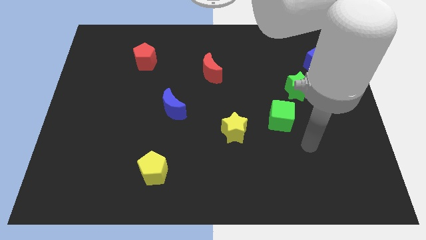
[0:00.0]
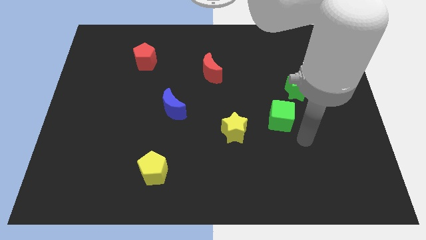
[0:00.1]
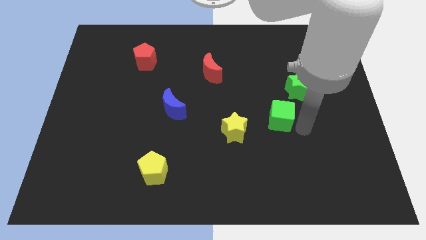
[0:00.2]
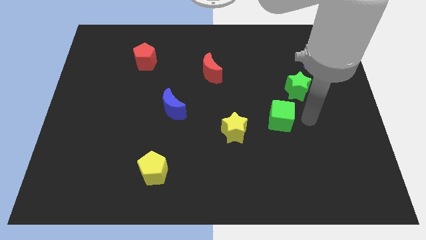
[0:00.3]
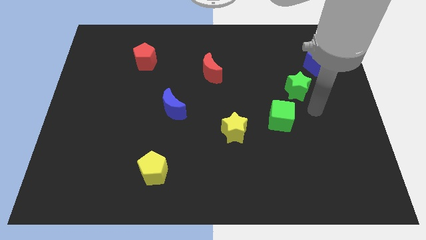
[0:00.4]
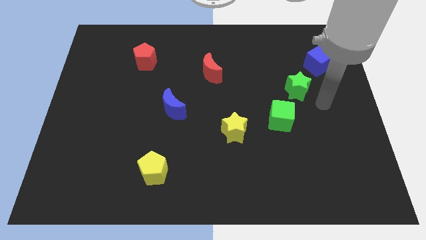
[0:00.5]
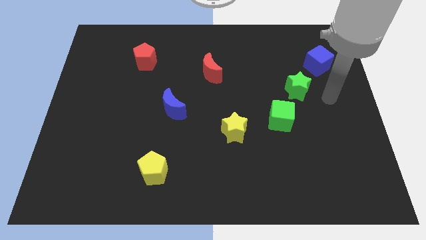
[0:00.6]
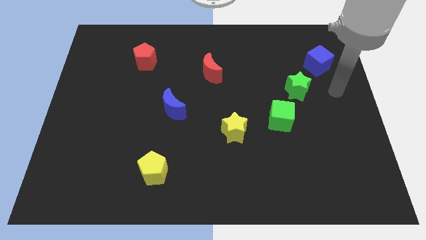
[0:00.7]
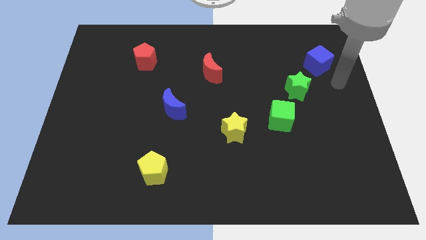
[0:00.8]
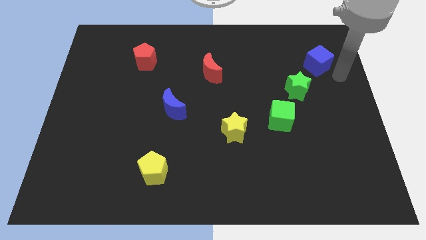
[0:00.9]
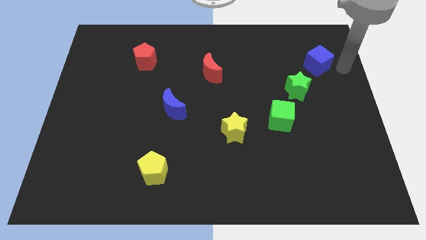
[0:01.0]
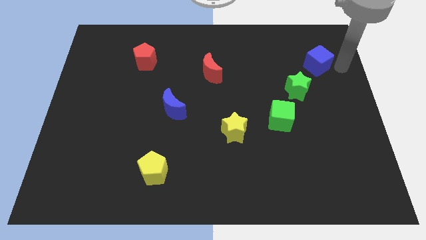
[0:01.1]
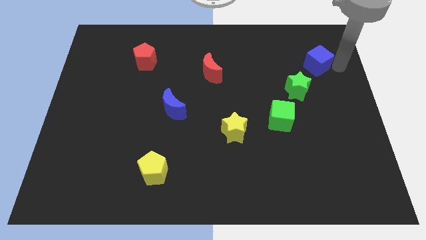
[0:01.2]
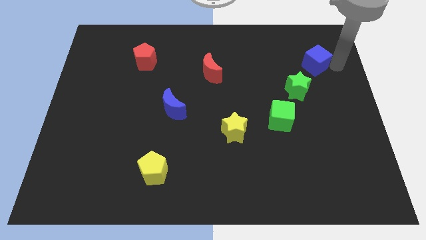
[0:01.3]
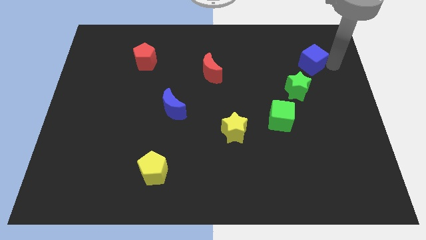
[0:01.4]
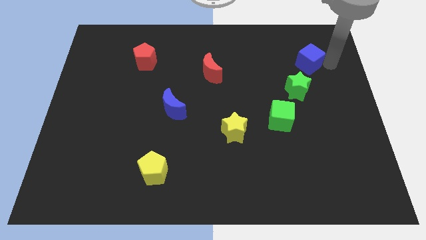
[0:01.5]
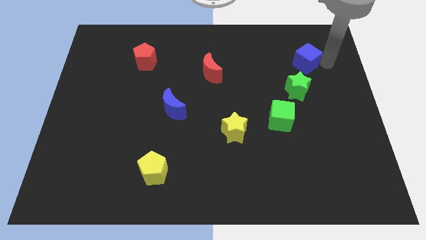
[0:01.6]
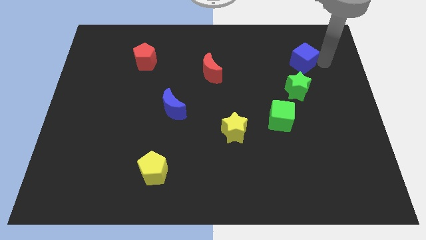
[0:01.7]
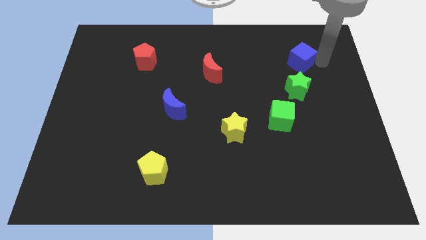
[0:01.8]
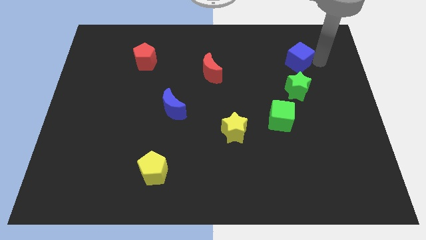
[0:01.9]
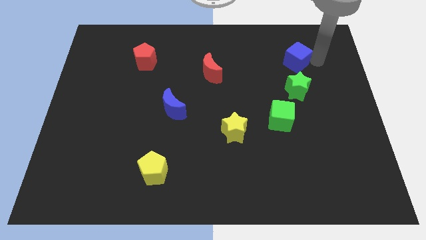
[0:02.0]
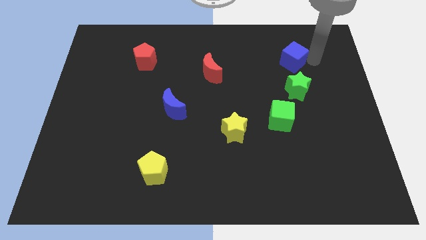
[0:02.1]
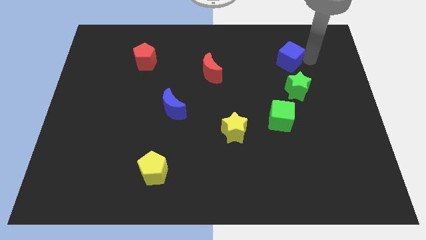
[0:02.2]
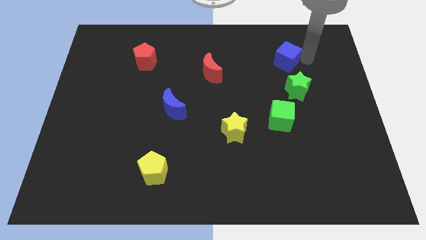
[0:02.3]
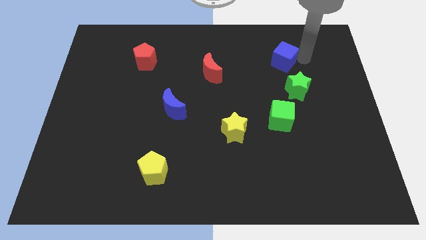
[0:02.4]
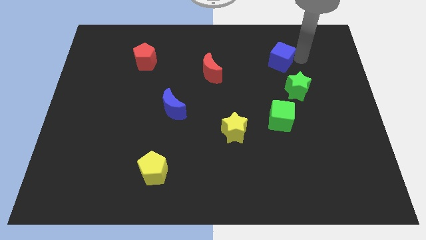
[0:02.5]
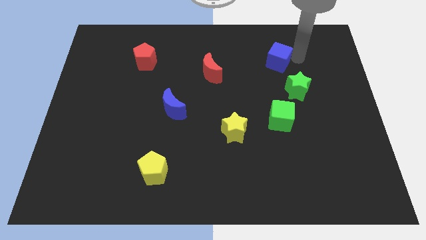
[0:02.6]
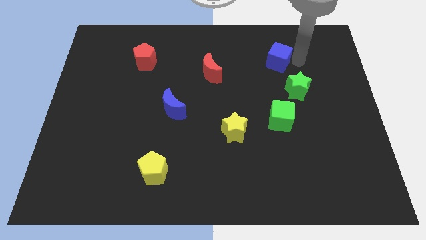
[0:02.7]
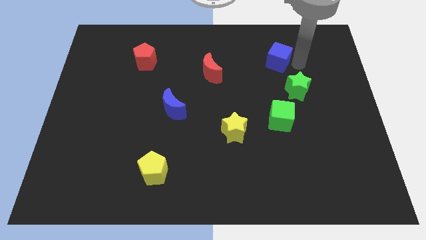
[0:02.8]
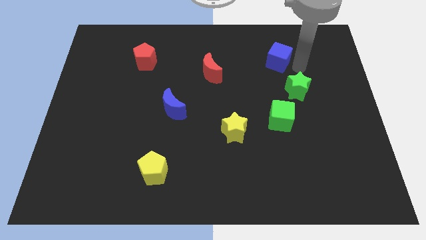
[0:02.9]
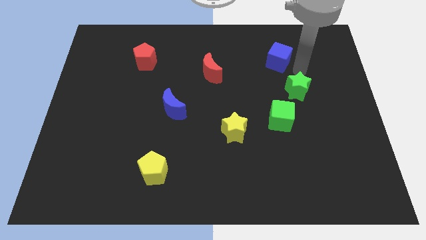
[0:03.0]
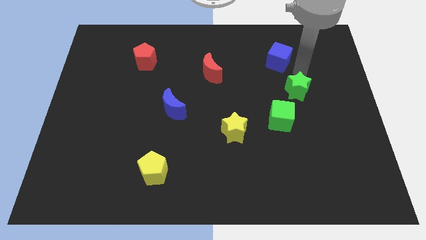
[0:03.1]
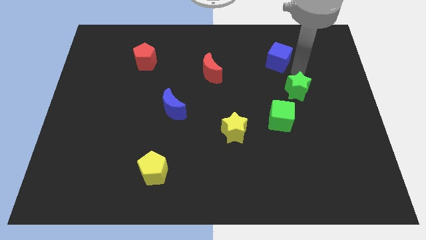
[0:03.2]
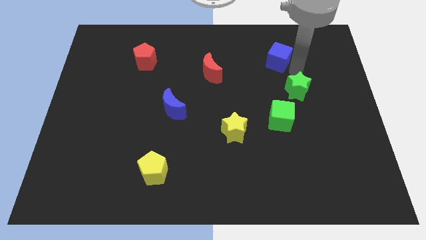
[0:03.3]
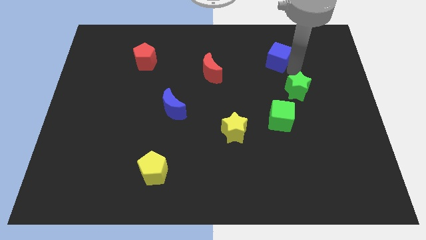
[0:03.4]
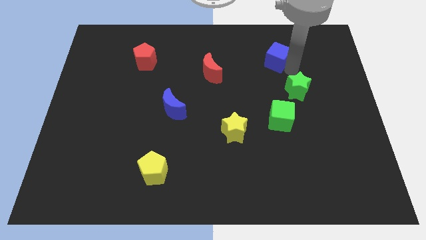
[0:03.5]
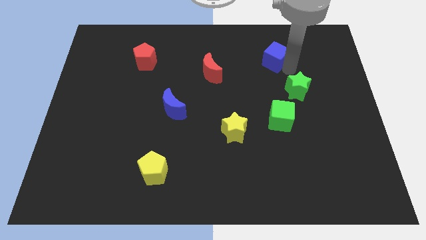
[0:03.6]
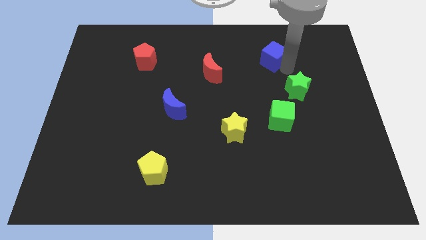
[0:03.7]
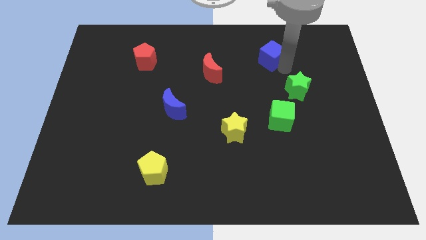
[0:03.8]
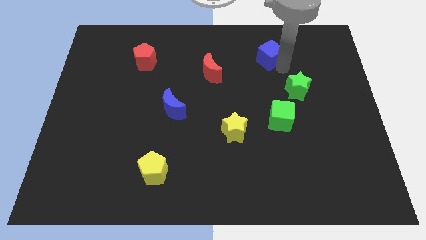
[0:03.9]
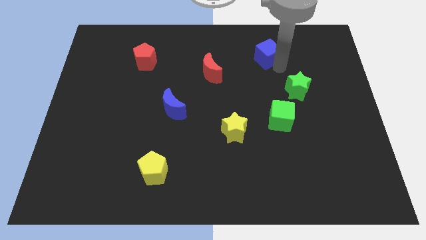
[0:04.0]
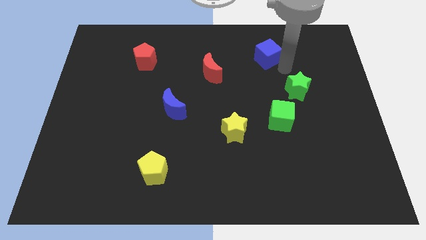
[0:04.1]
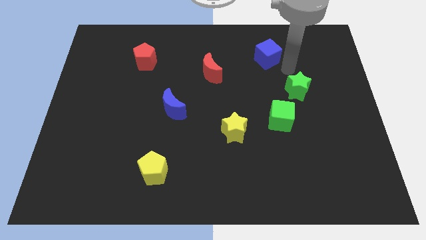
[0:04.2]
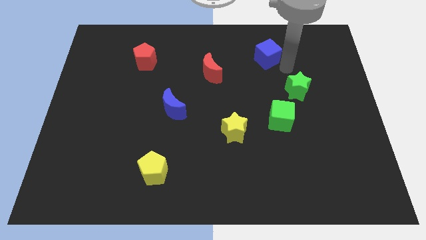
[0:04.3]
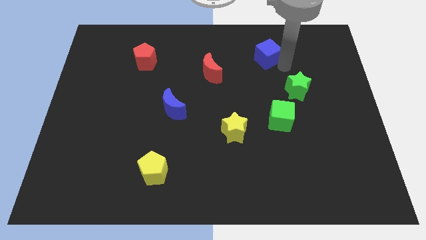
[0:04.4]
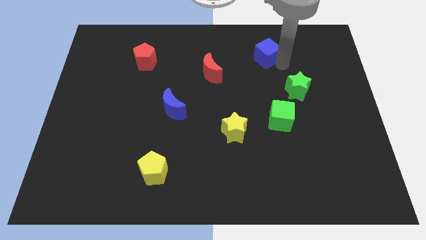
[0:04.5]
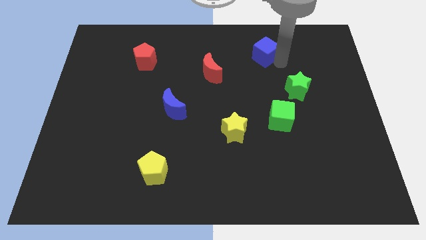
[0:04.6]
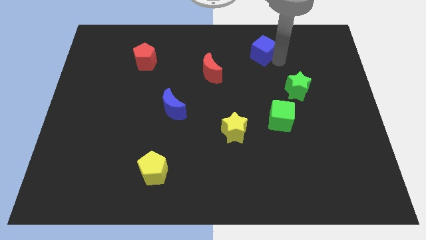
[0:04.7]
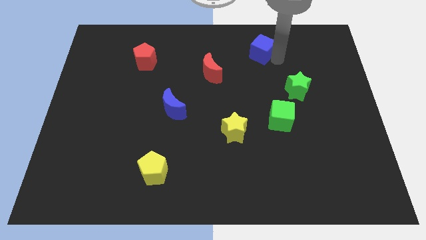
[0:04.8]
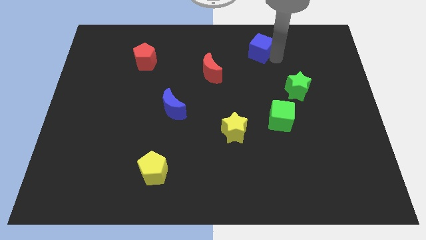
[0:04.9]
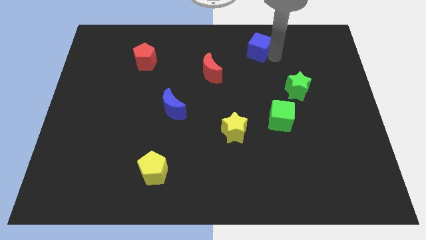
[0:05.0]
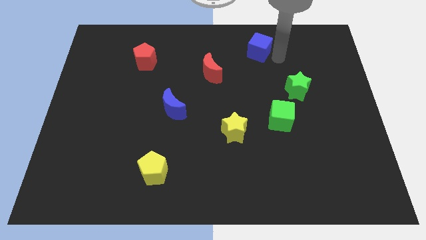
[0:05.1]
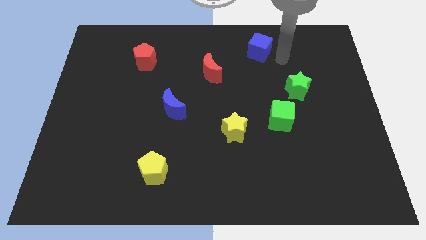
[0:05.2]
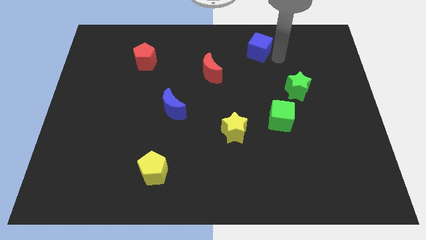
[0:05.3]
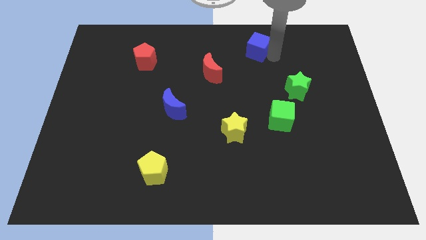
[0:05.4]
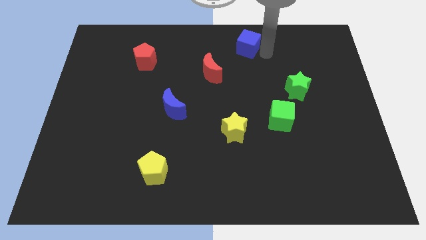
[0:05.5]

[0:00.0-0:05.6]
push the blue cube to the towards your base

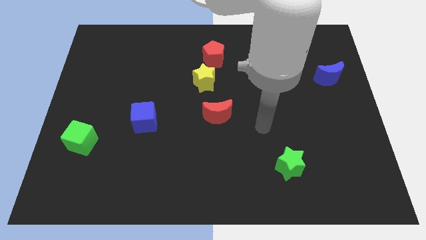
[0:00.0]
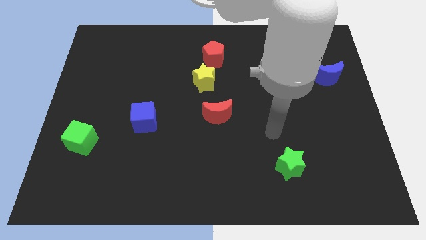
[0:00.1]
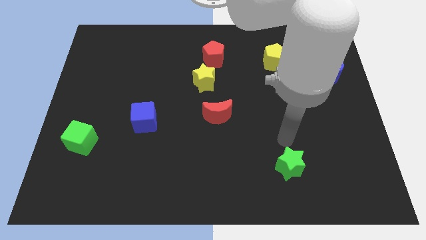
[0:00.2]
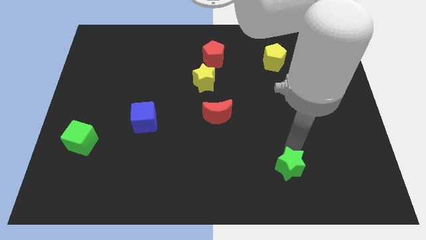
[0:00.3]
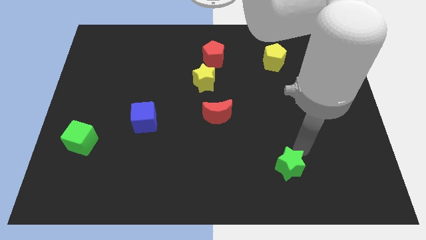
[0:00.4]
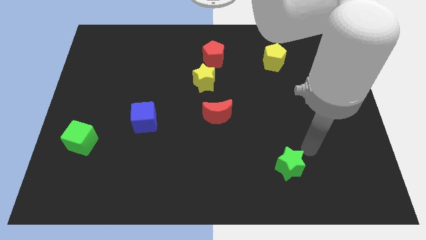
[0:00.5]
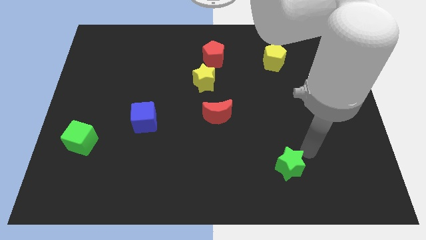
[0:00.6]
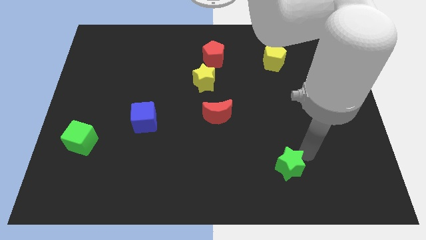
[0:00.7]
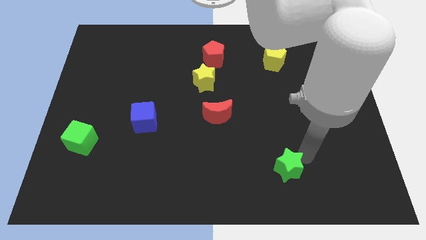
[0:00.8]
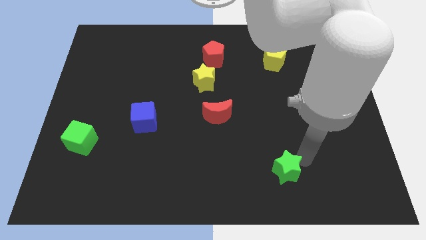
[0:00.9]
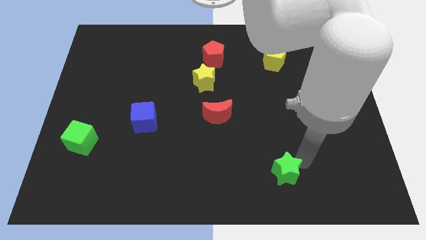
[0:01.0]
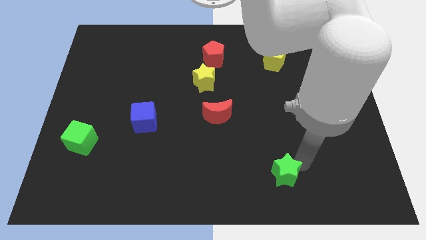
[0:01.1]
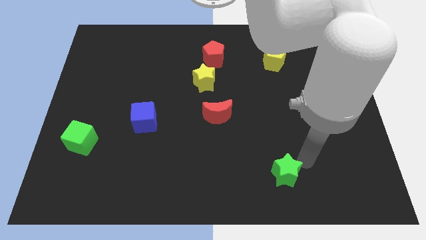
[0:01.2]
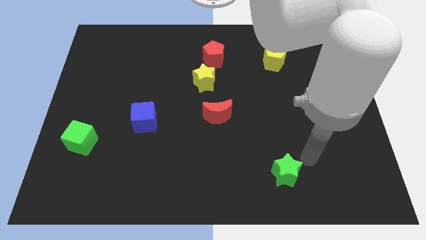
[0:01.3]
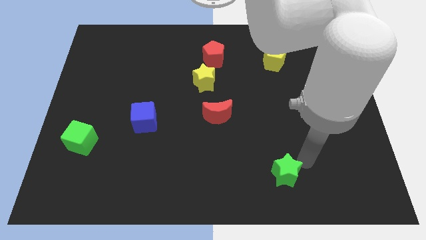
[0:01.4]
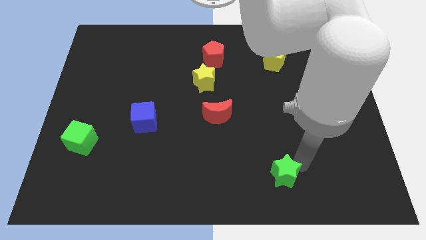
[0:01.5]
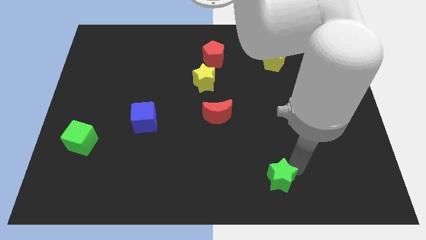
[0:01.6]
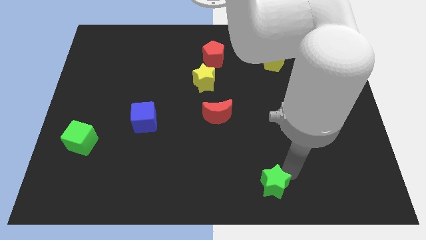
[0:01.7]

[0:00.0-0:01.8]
put the green star to the bottom side
